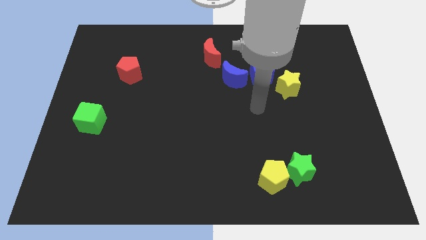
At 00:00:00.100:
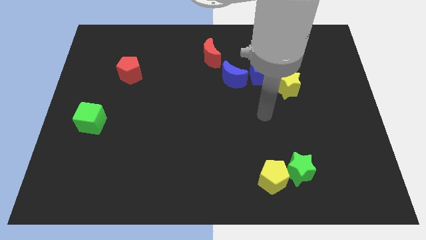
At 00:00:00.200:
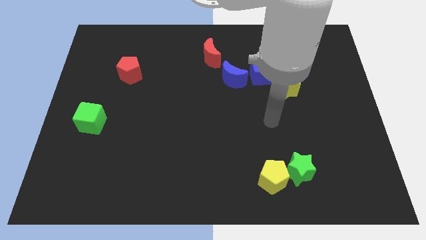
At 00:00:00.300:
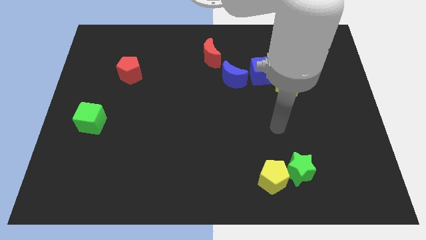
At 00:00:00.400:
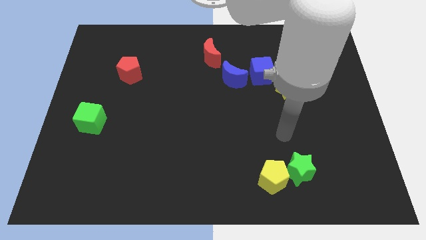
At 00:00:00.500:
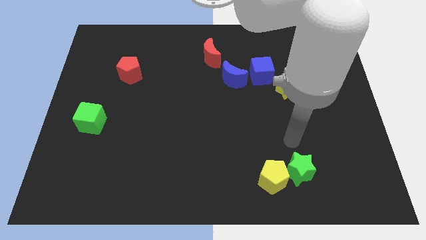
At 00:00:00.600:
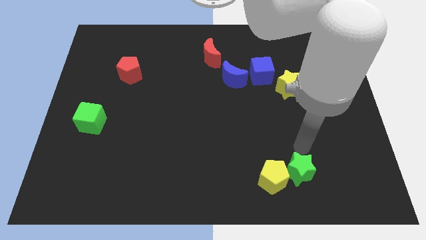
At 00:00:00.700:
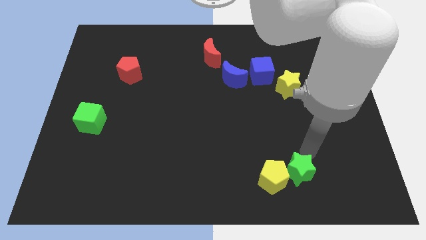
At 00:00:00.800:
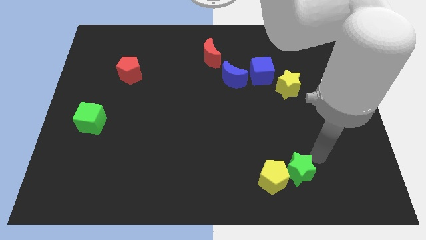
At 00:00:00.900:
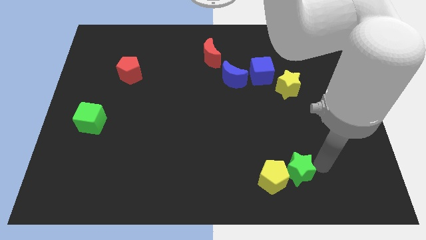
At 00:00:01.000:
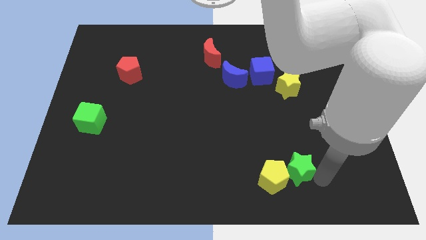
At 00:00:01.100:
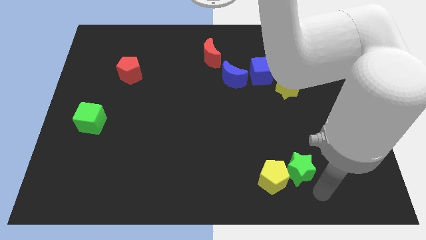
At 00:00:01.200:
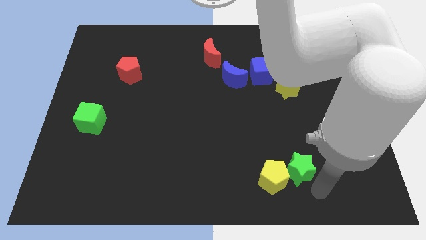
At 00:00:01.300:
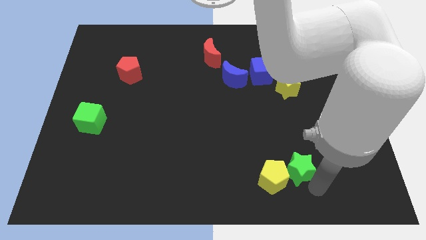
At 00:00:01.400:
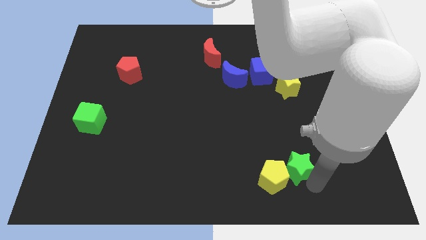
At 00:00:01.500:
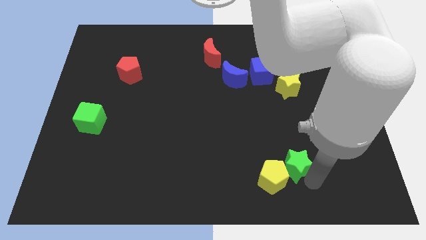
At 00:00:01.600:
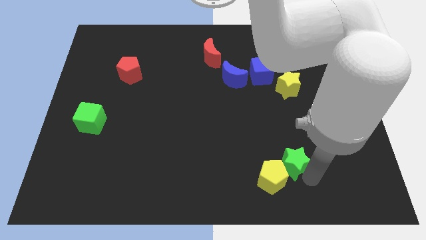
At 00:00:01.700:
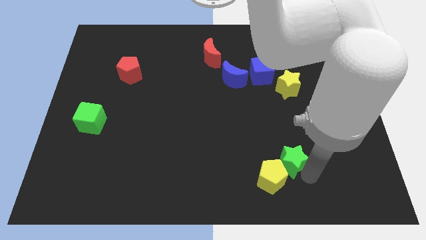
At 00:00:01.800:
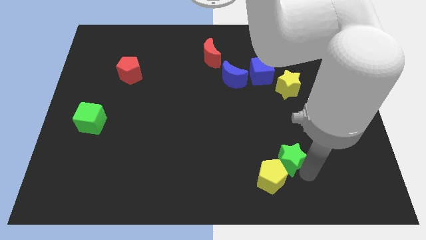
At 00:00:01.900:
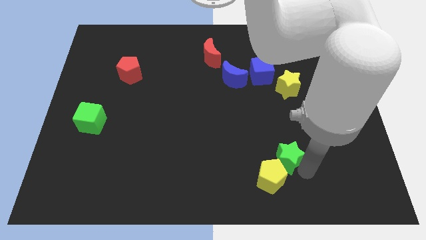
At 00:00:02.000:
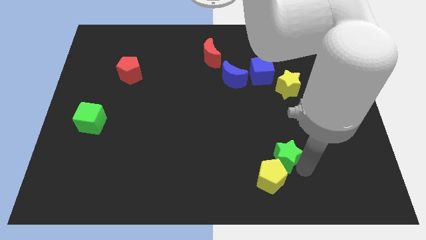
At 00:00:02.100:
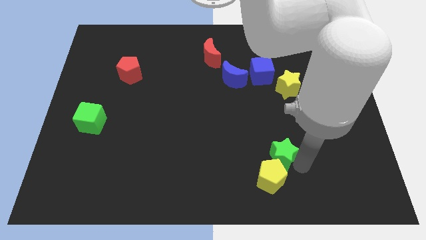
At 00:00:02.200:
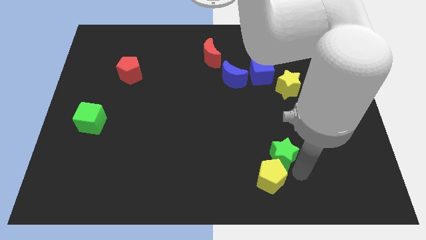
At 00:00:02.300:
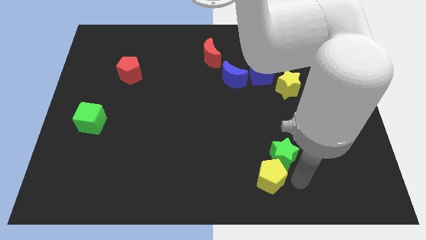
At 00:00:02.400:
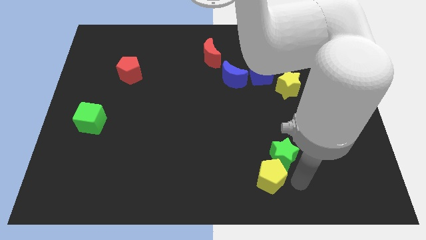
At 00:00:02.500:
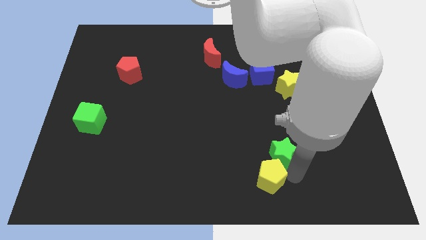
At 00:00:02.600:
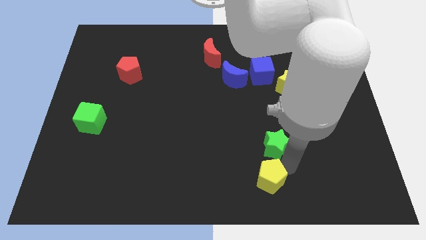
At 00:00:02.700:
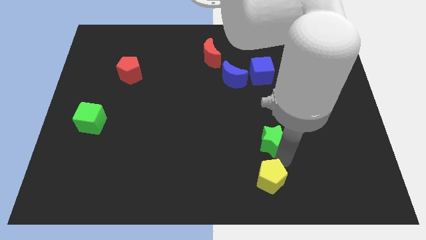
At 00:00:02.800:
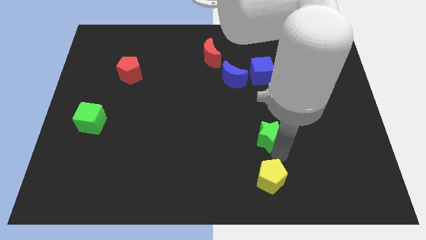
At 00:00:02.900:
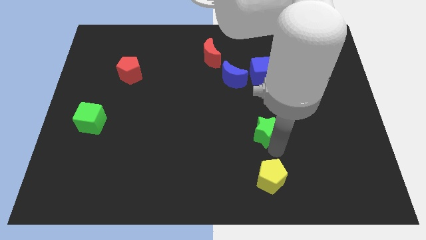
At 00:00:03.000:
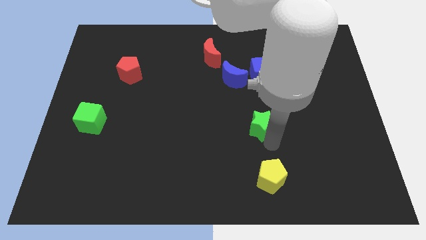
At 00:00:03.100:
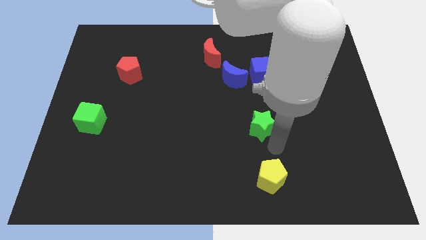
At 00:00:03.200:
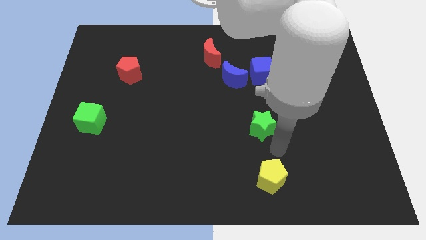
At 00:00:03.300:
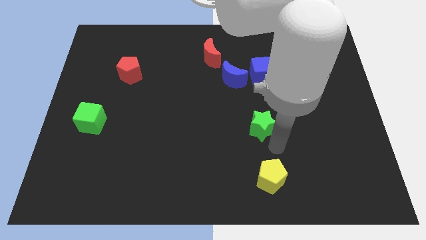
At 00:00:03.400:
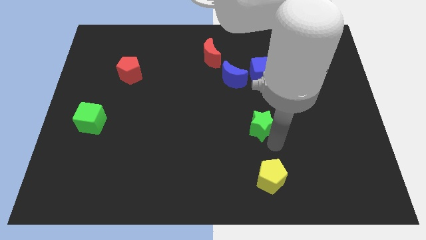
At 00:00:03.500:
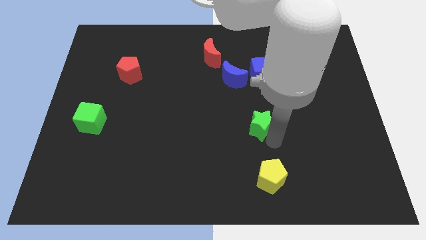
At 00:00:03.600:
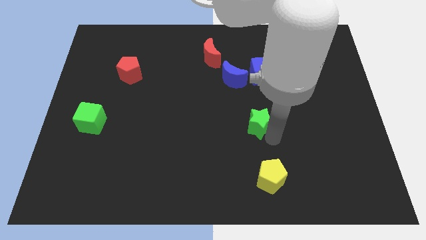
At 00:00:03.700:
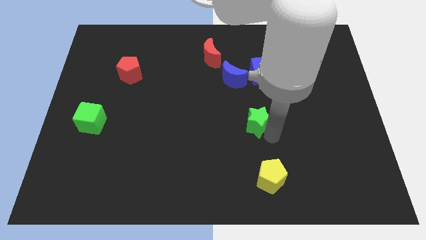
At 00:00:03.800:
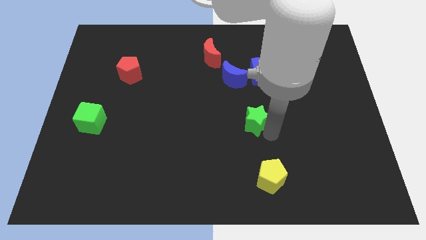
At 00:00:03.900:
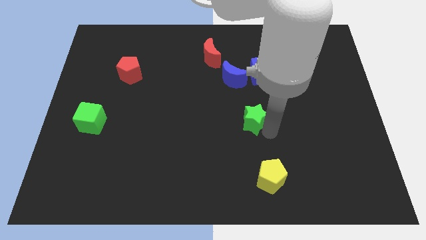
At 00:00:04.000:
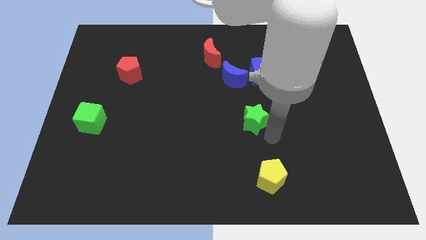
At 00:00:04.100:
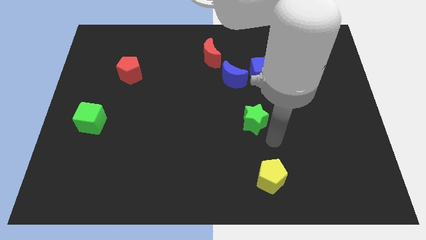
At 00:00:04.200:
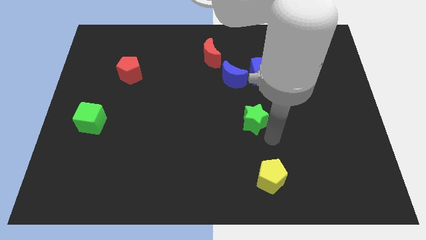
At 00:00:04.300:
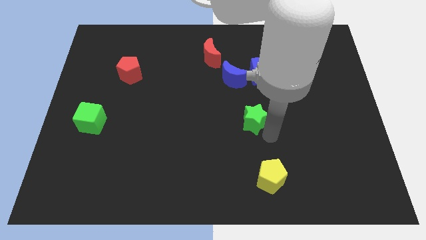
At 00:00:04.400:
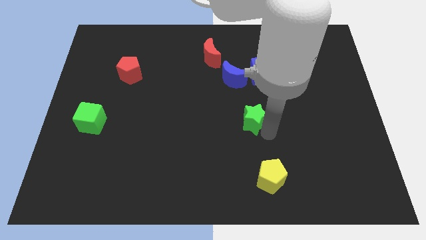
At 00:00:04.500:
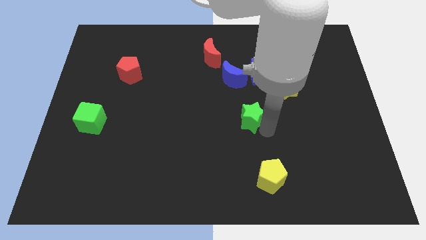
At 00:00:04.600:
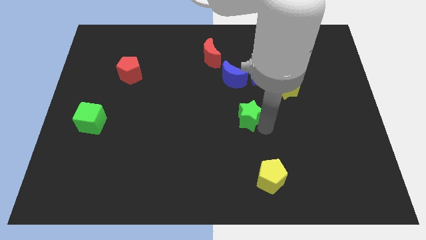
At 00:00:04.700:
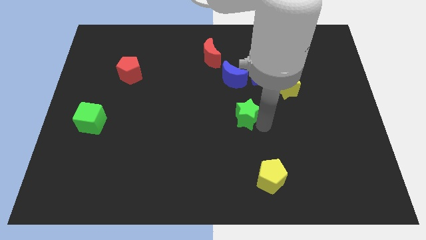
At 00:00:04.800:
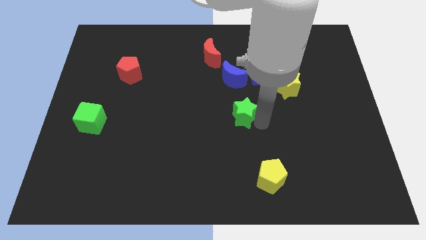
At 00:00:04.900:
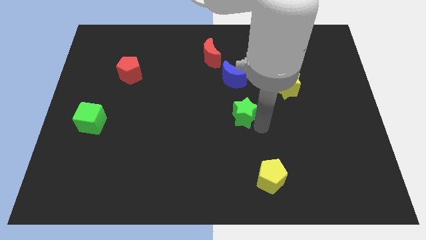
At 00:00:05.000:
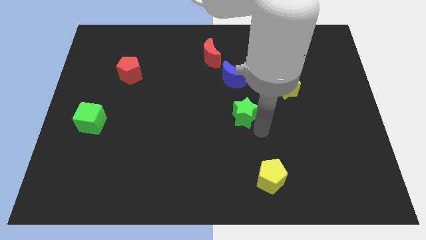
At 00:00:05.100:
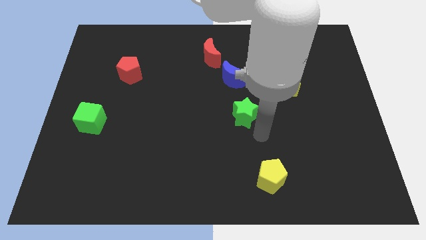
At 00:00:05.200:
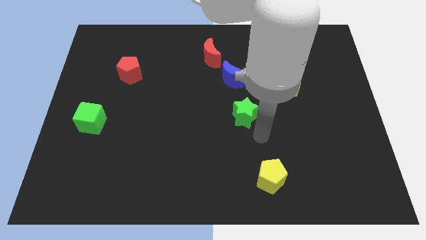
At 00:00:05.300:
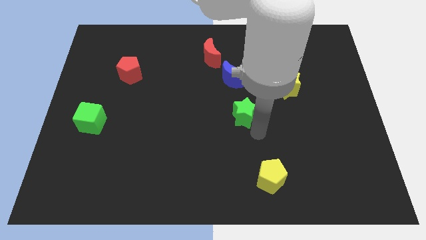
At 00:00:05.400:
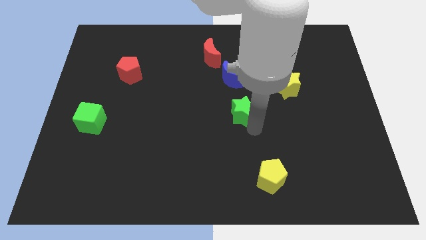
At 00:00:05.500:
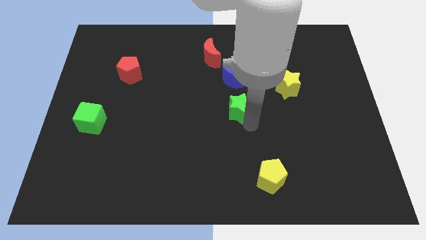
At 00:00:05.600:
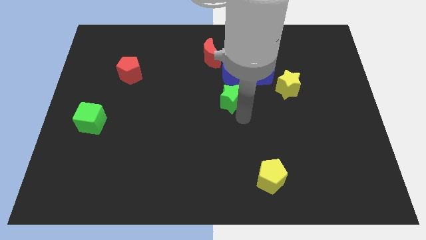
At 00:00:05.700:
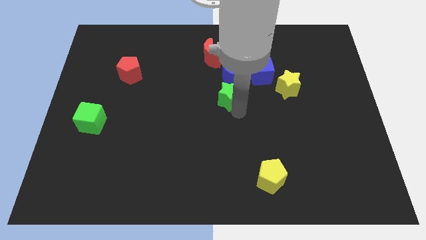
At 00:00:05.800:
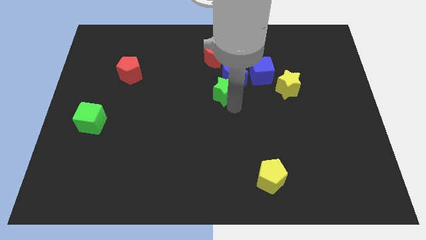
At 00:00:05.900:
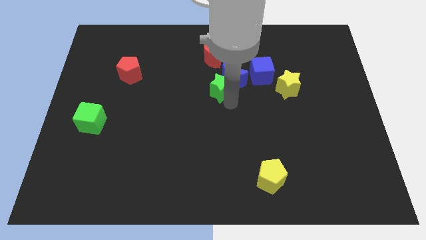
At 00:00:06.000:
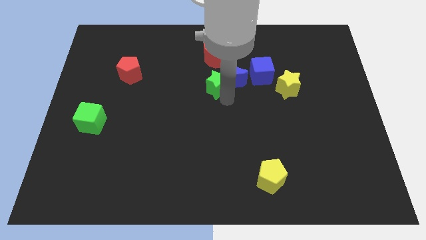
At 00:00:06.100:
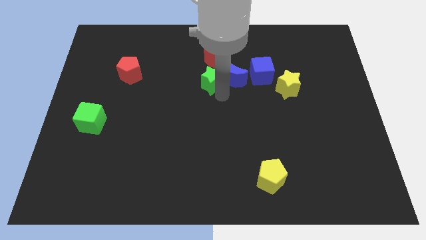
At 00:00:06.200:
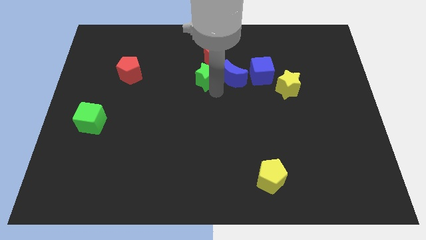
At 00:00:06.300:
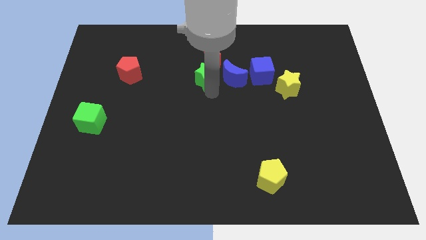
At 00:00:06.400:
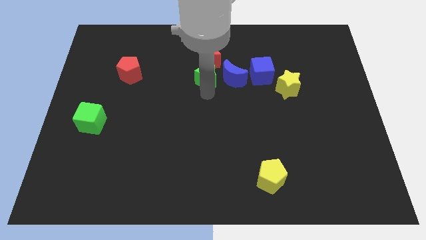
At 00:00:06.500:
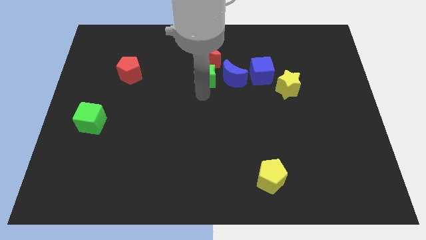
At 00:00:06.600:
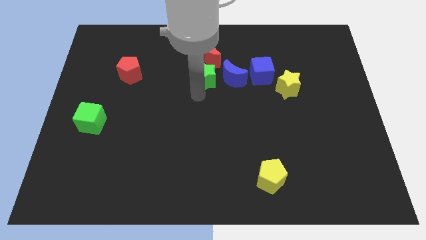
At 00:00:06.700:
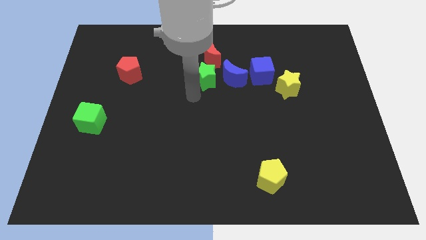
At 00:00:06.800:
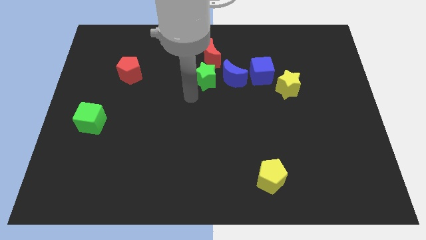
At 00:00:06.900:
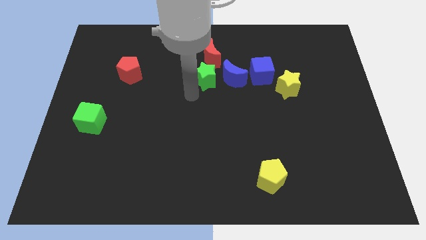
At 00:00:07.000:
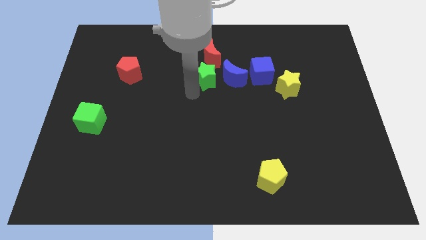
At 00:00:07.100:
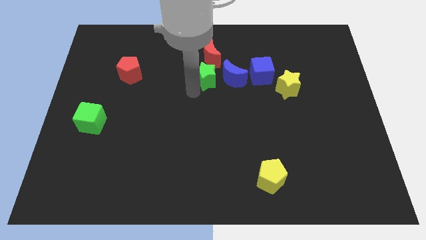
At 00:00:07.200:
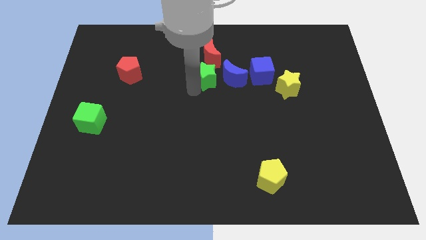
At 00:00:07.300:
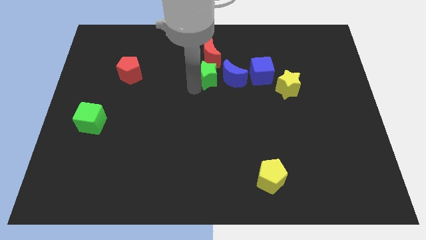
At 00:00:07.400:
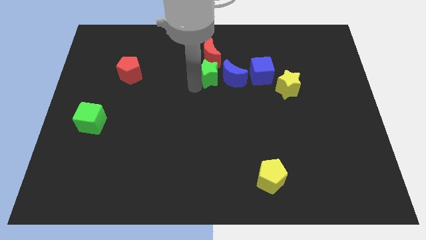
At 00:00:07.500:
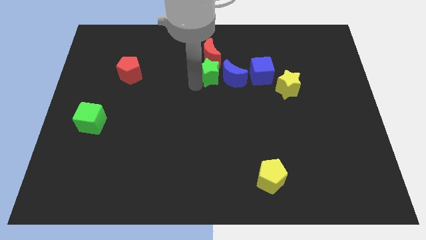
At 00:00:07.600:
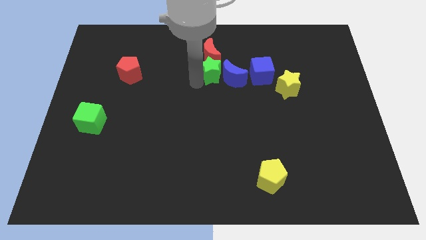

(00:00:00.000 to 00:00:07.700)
slide the green star next to the red moon
